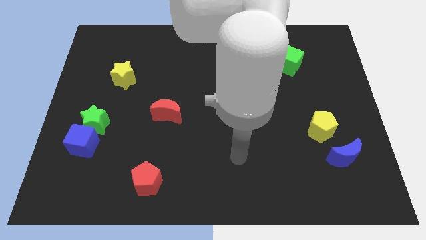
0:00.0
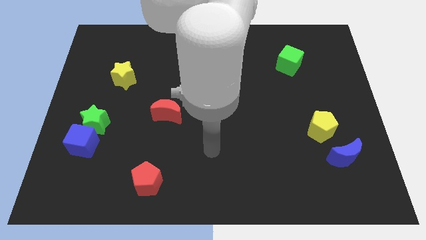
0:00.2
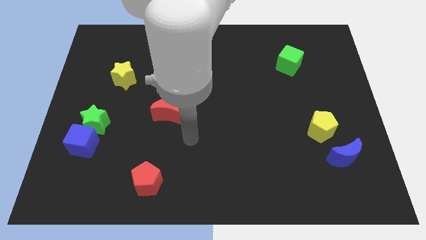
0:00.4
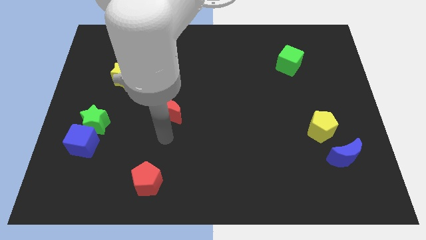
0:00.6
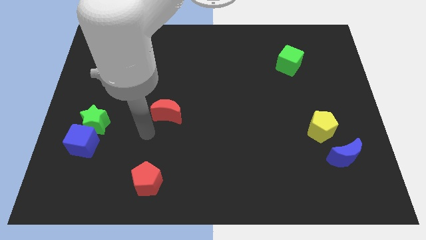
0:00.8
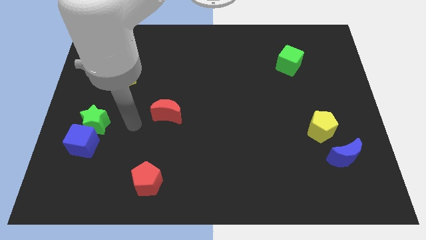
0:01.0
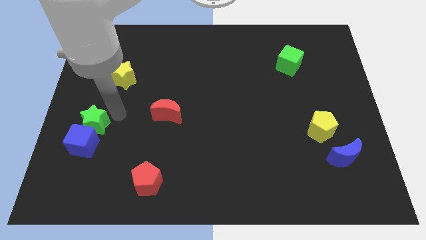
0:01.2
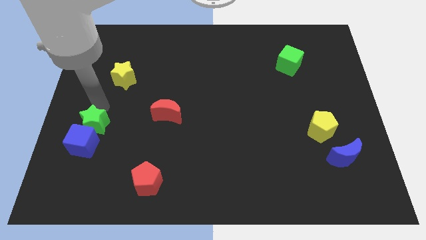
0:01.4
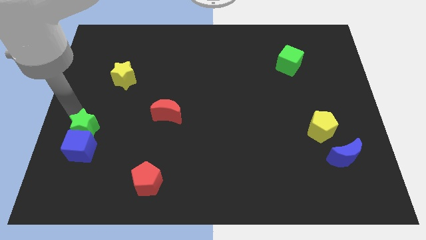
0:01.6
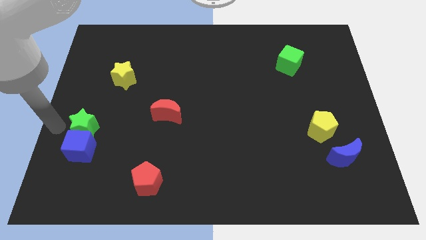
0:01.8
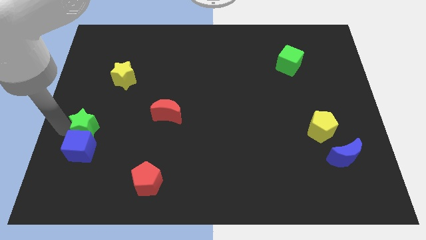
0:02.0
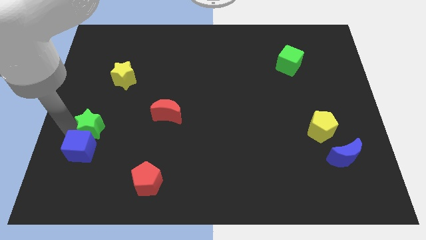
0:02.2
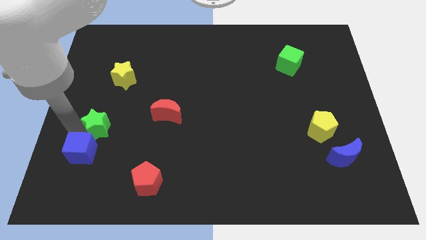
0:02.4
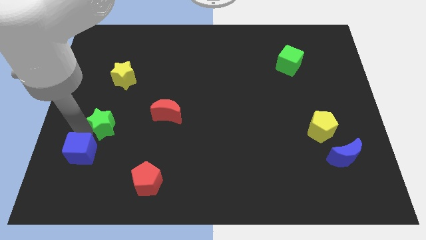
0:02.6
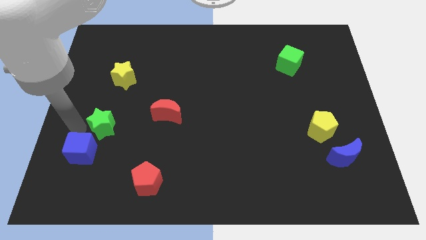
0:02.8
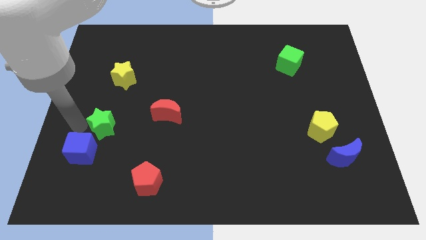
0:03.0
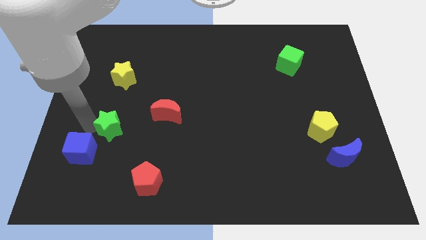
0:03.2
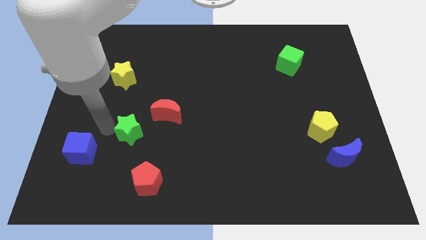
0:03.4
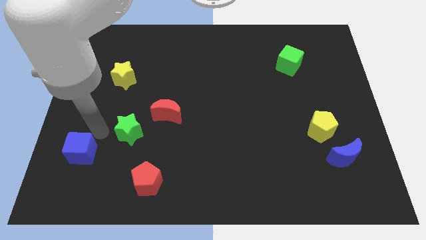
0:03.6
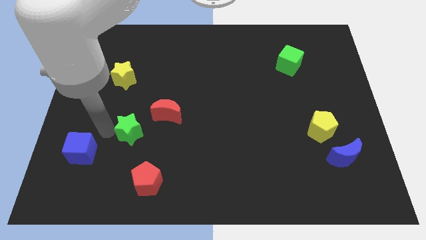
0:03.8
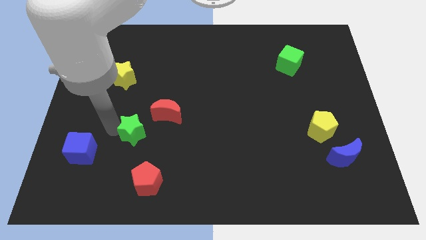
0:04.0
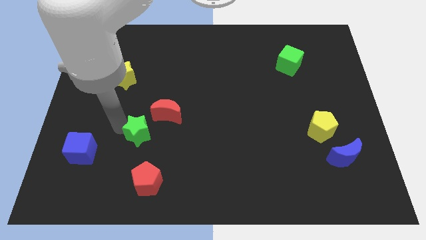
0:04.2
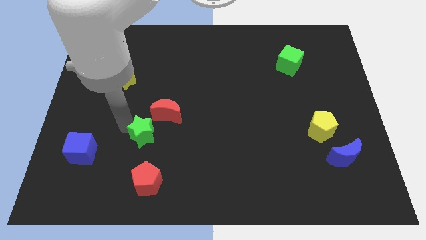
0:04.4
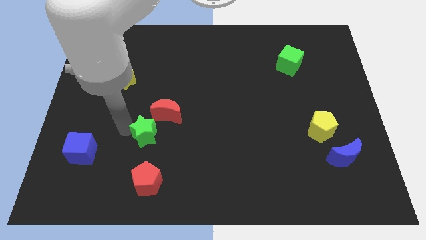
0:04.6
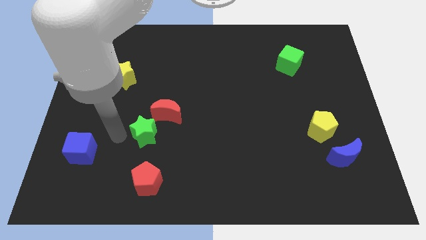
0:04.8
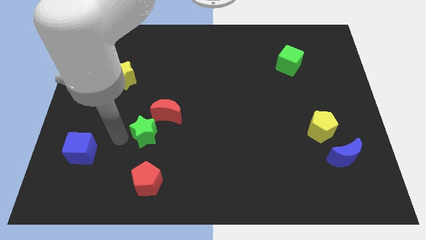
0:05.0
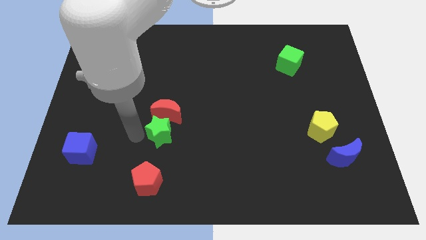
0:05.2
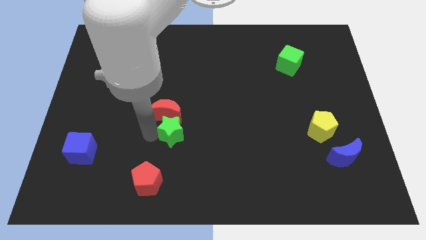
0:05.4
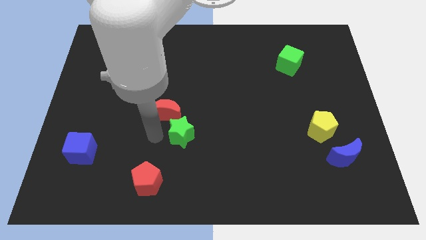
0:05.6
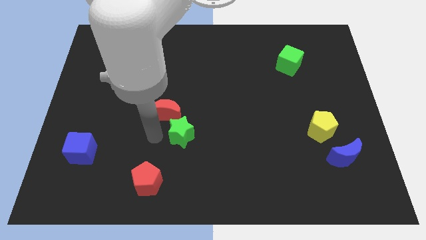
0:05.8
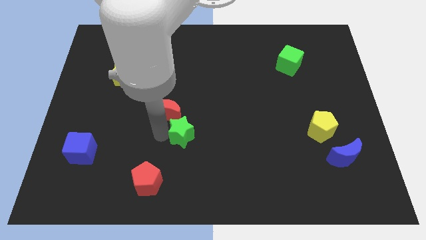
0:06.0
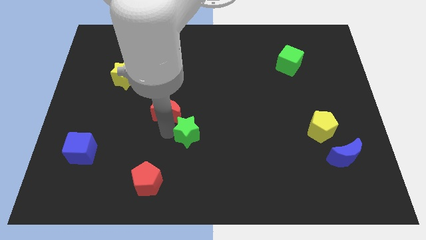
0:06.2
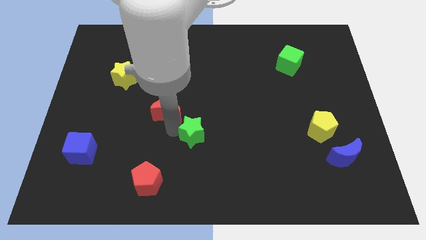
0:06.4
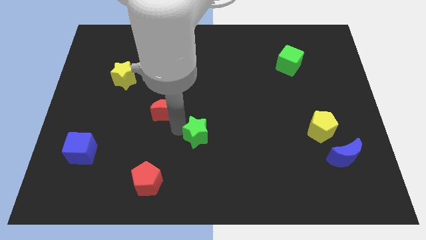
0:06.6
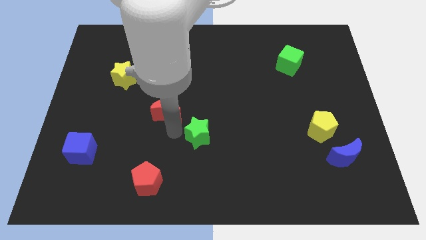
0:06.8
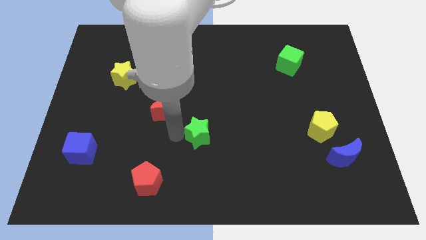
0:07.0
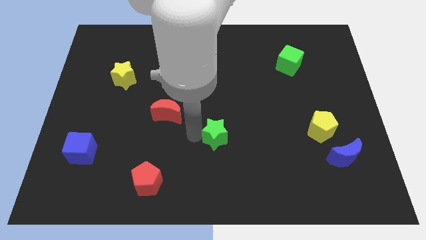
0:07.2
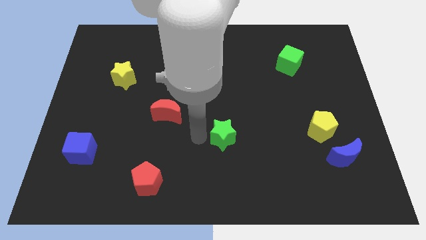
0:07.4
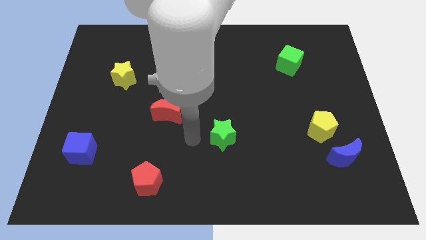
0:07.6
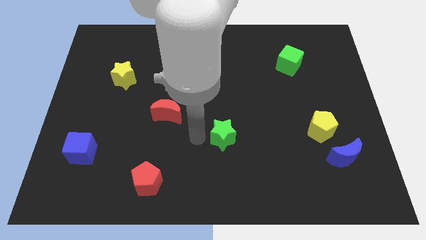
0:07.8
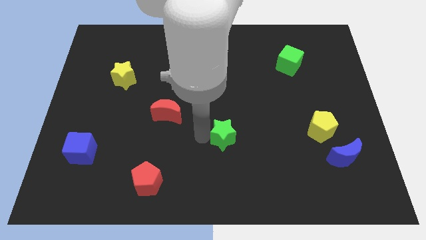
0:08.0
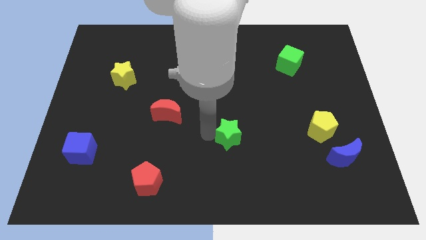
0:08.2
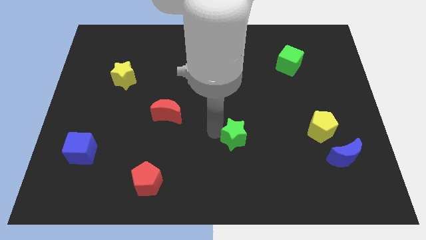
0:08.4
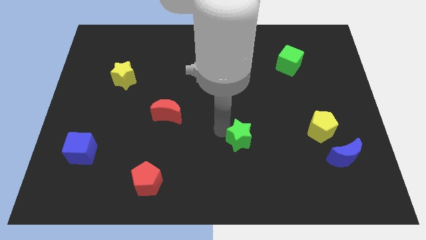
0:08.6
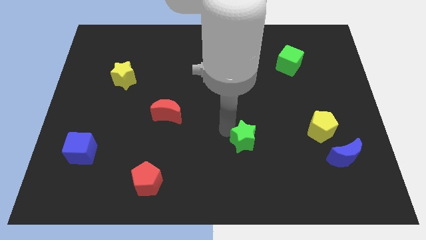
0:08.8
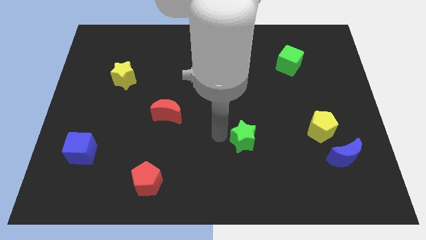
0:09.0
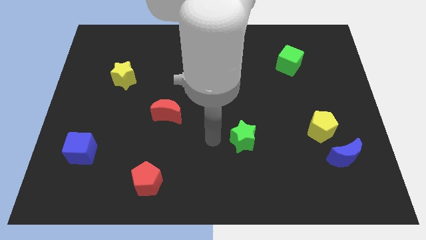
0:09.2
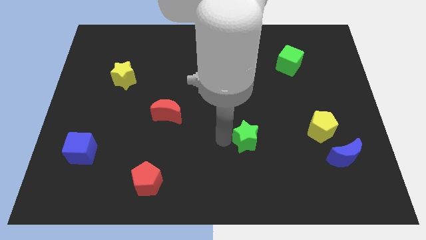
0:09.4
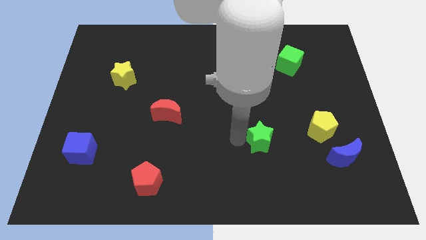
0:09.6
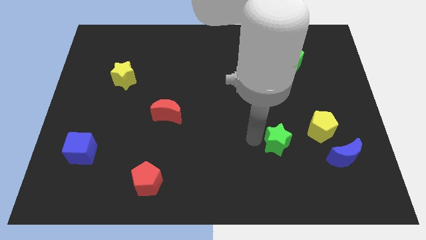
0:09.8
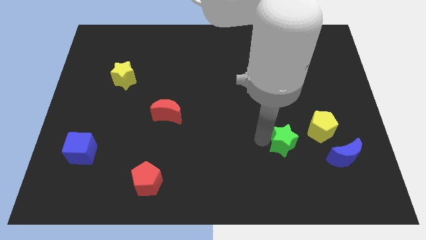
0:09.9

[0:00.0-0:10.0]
put the green star to the bottom left of the yellow pentagon

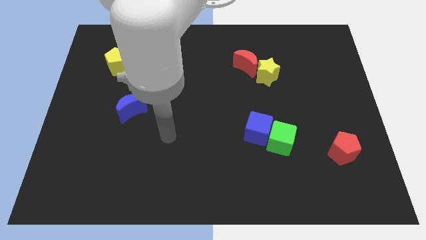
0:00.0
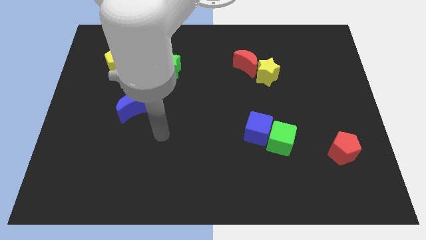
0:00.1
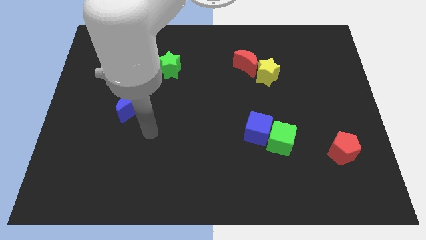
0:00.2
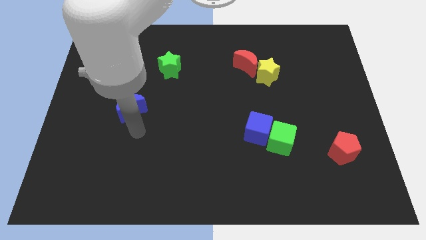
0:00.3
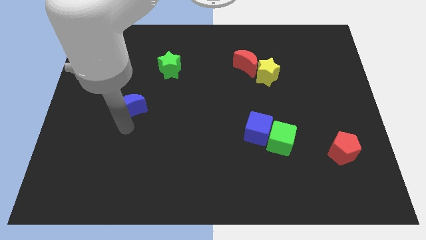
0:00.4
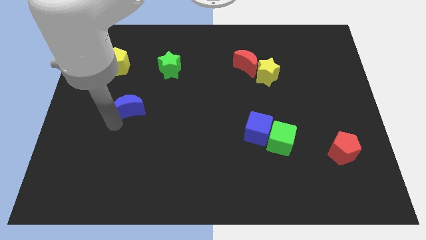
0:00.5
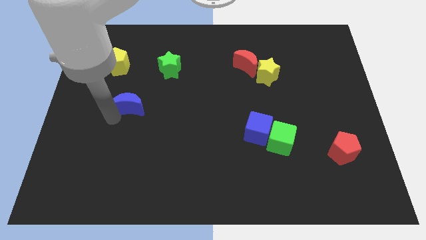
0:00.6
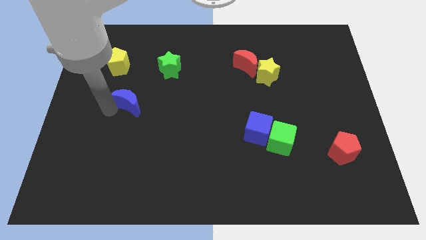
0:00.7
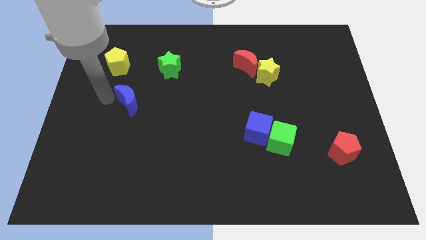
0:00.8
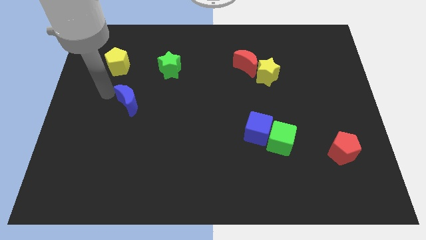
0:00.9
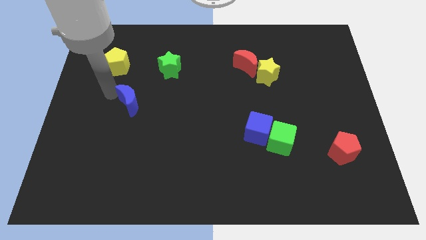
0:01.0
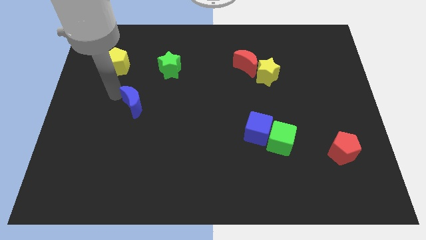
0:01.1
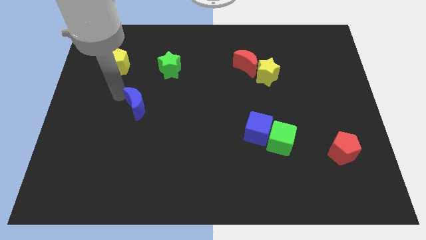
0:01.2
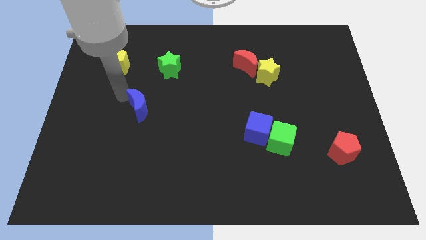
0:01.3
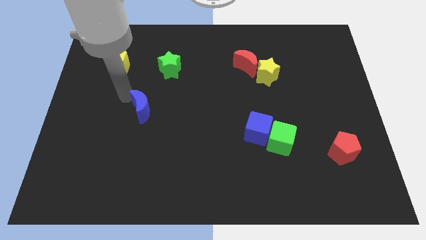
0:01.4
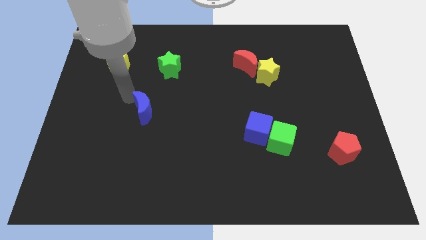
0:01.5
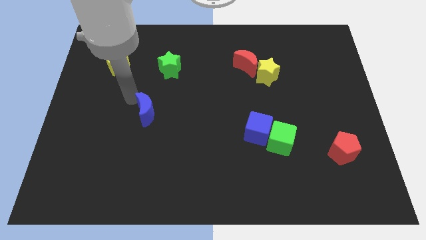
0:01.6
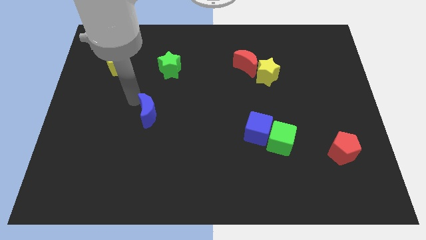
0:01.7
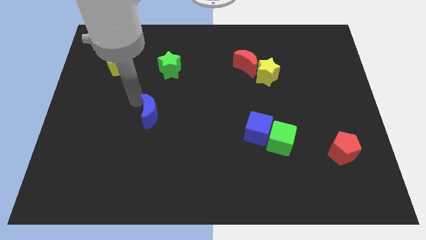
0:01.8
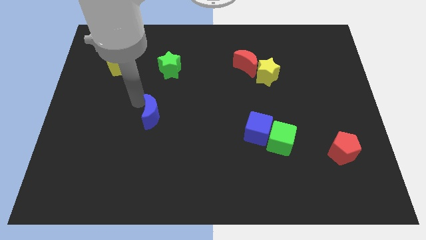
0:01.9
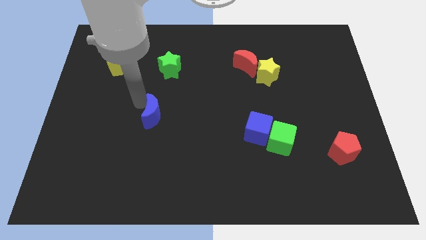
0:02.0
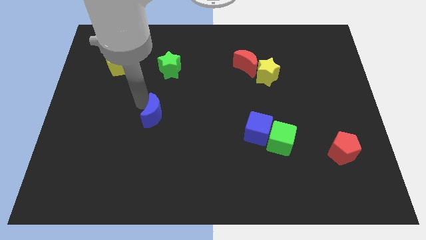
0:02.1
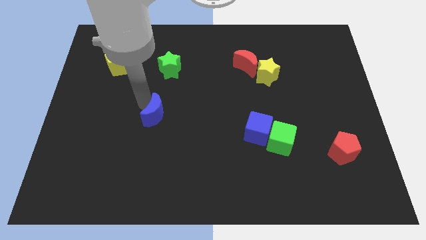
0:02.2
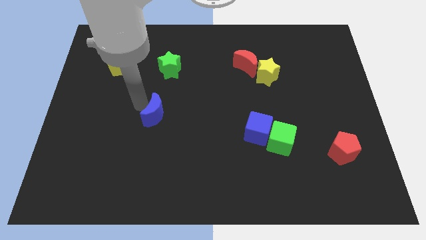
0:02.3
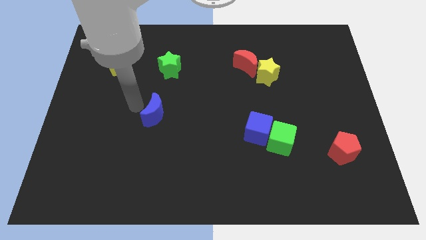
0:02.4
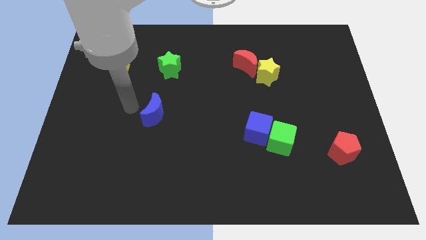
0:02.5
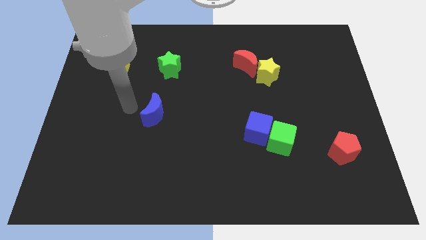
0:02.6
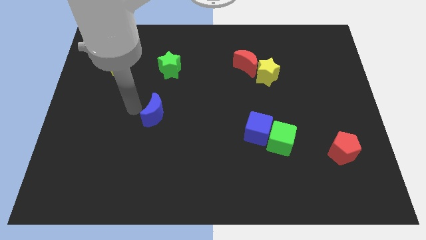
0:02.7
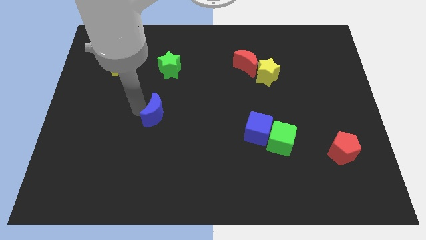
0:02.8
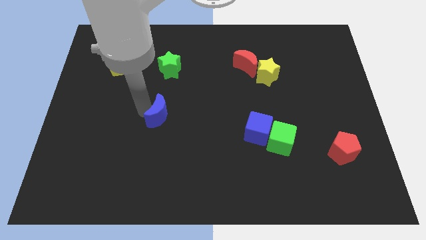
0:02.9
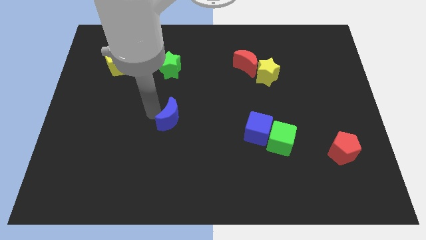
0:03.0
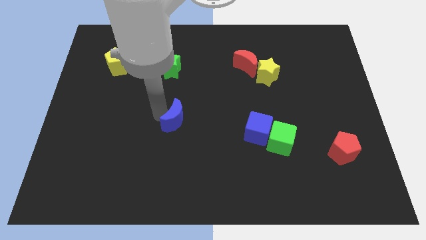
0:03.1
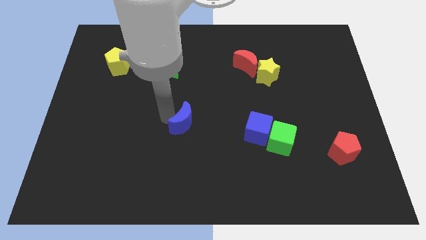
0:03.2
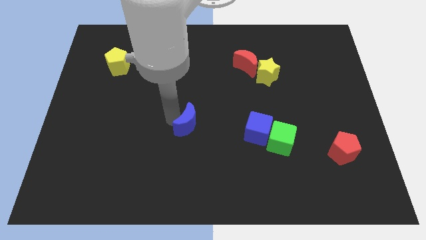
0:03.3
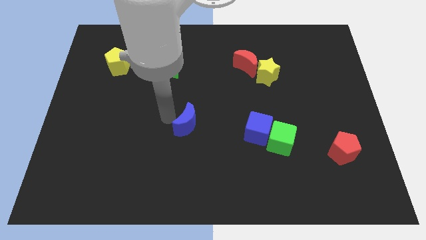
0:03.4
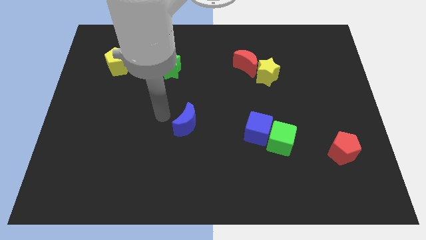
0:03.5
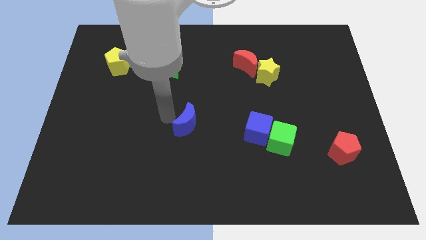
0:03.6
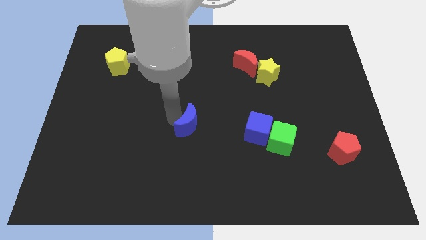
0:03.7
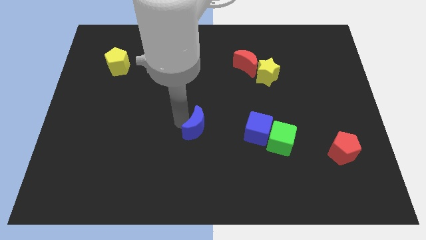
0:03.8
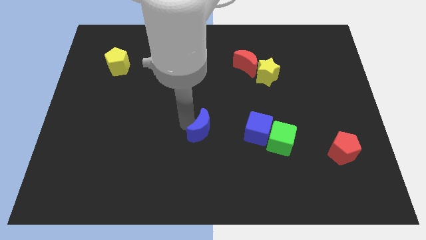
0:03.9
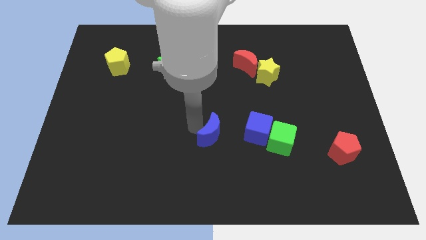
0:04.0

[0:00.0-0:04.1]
put the blue moon just left of the green cube
